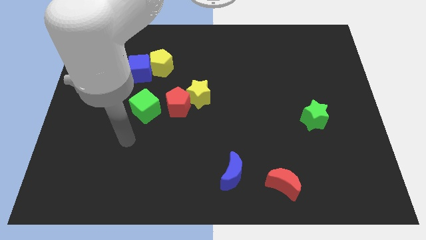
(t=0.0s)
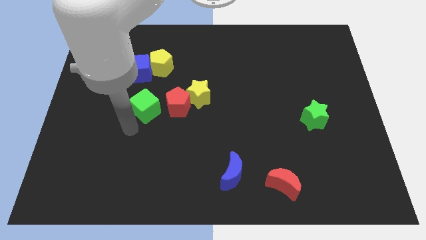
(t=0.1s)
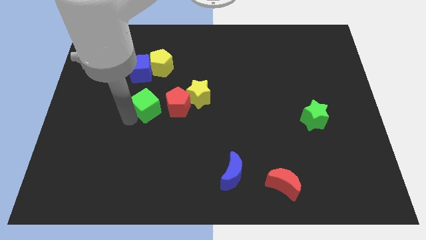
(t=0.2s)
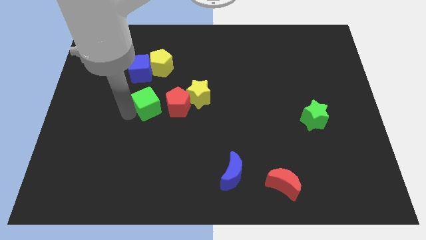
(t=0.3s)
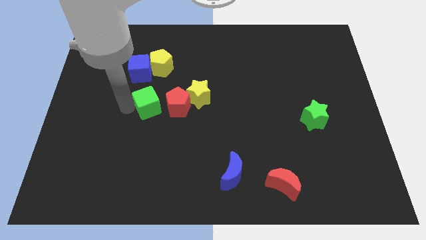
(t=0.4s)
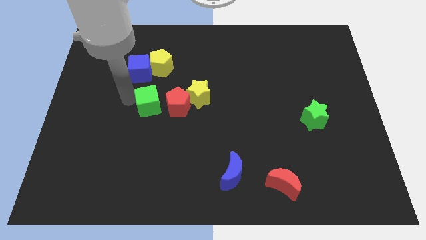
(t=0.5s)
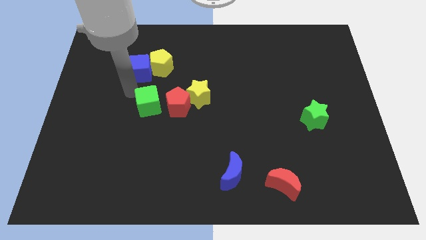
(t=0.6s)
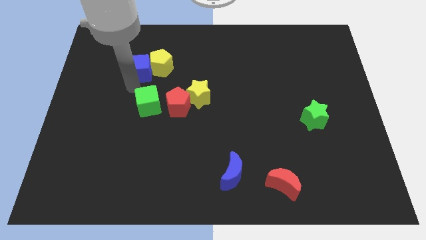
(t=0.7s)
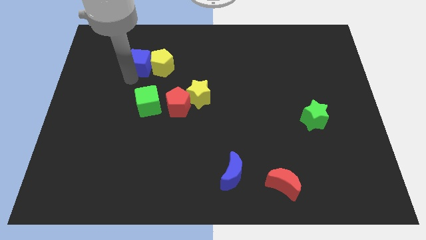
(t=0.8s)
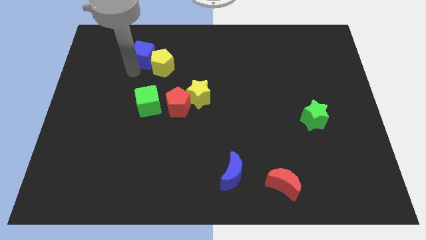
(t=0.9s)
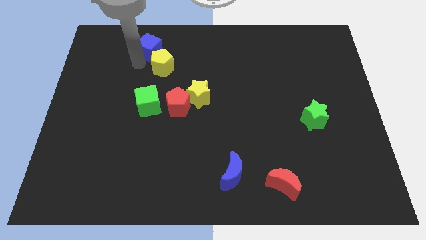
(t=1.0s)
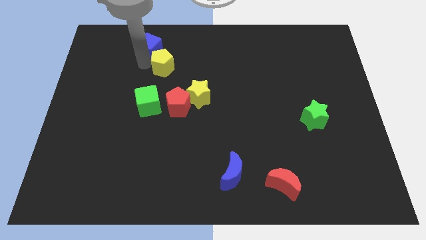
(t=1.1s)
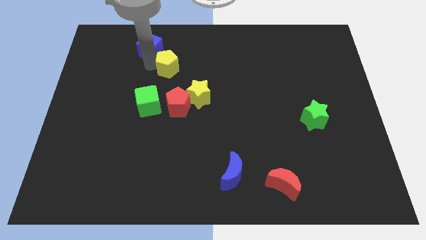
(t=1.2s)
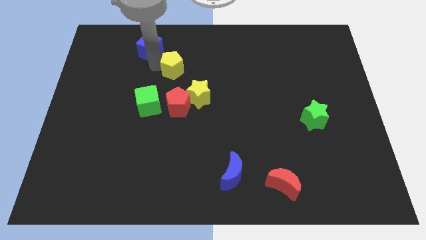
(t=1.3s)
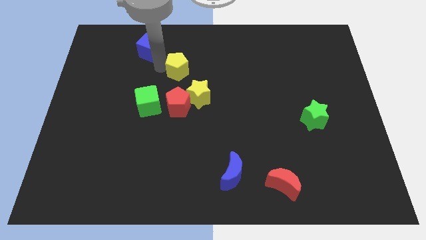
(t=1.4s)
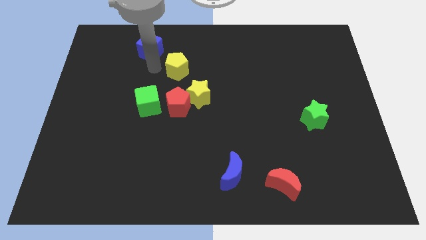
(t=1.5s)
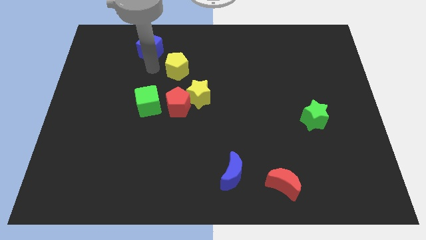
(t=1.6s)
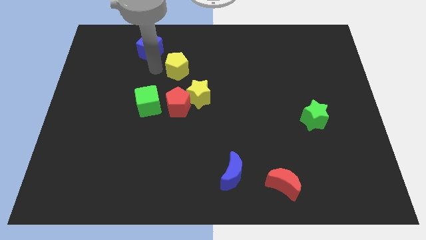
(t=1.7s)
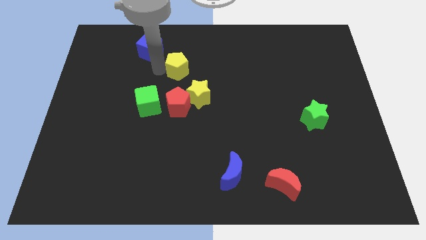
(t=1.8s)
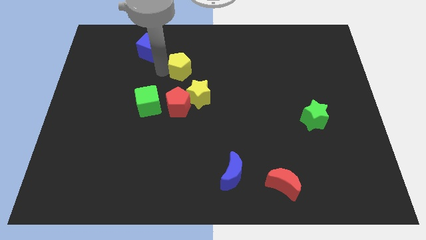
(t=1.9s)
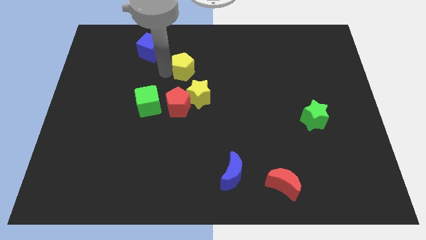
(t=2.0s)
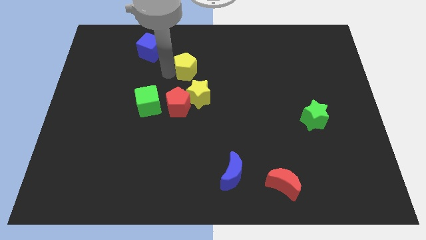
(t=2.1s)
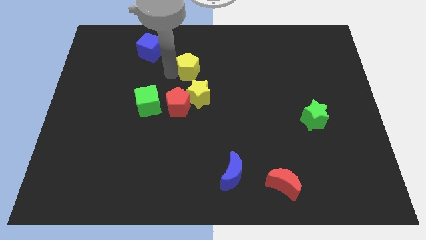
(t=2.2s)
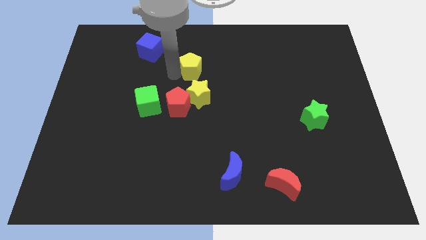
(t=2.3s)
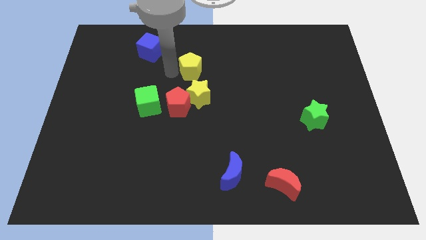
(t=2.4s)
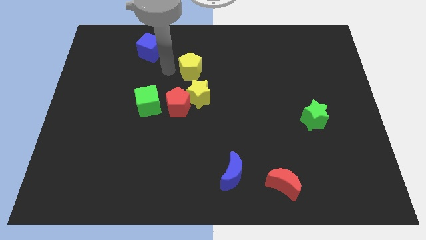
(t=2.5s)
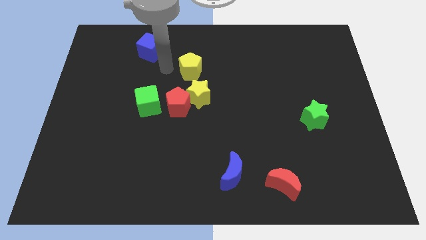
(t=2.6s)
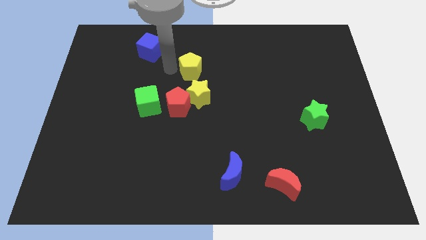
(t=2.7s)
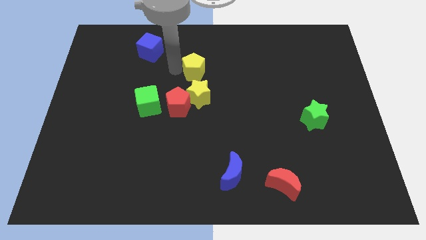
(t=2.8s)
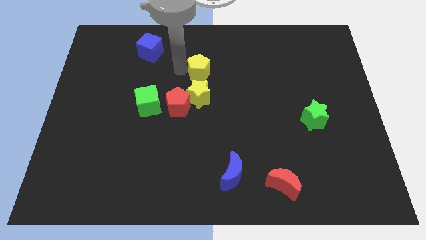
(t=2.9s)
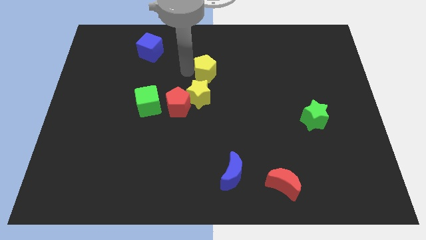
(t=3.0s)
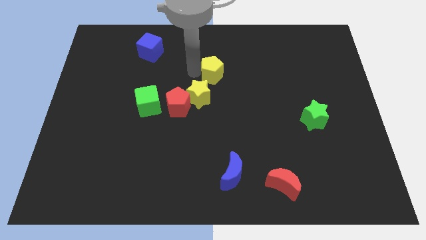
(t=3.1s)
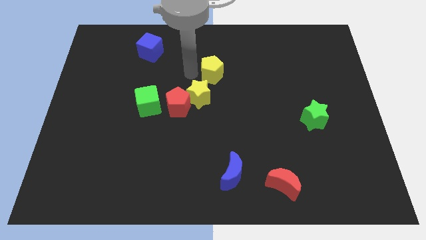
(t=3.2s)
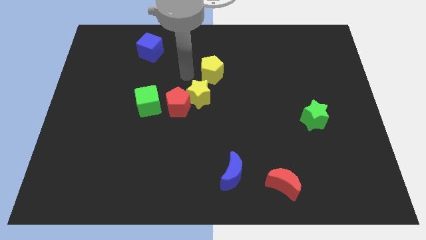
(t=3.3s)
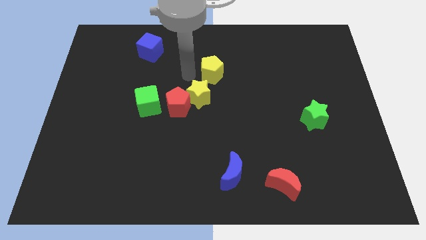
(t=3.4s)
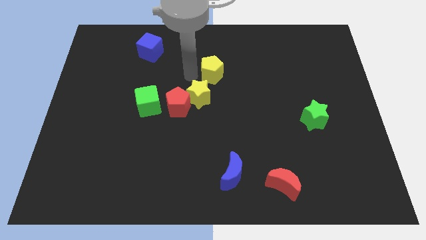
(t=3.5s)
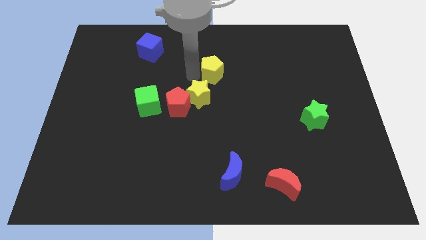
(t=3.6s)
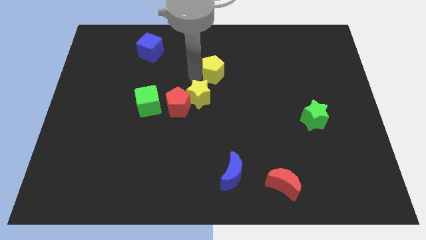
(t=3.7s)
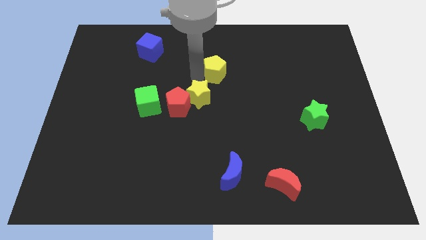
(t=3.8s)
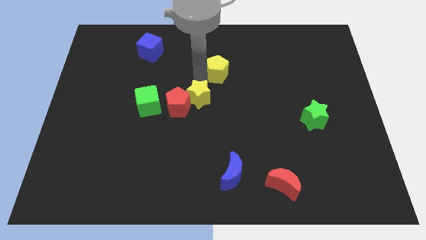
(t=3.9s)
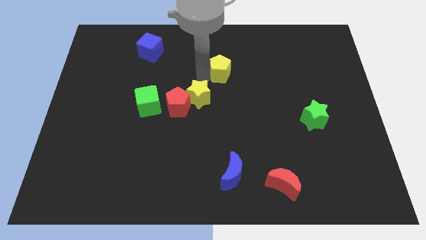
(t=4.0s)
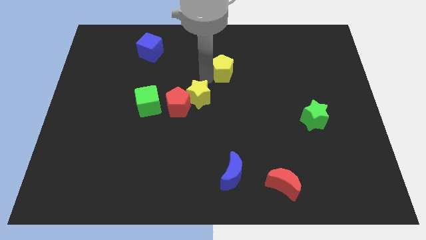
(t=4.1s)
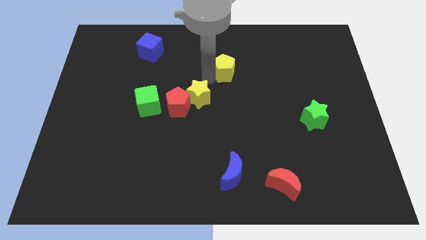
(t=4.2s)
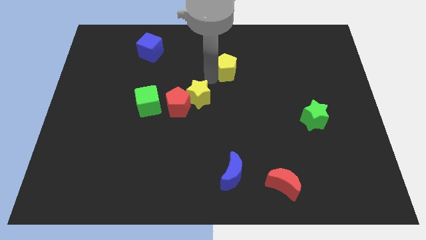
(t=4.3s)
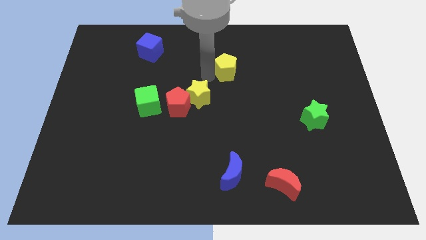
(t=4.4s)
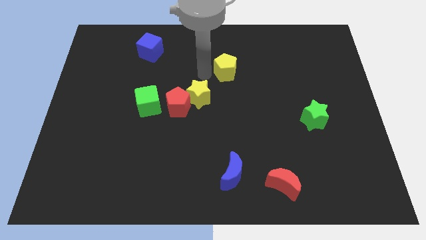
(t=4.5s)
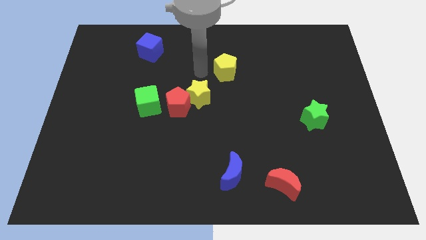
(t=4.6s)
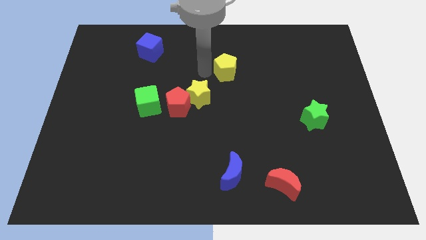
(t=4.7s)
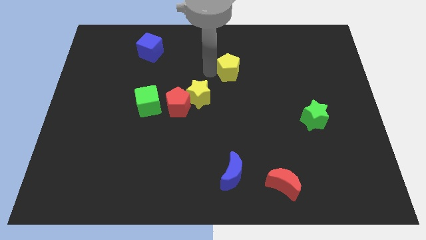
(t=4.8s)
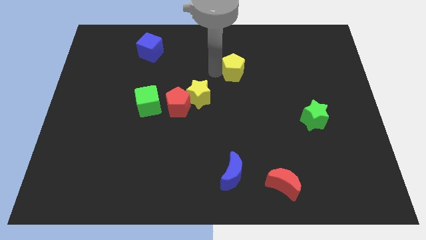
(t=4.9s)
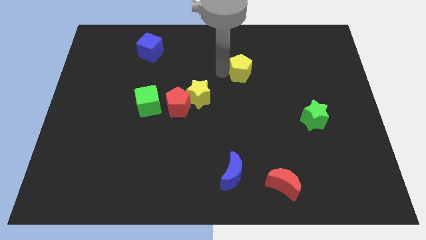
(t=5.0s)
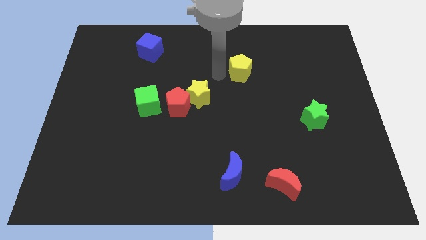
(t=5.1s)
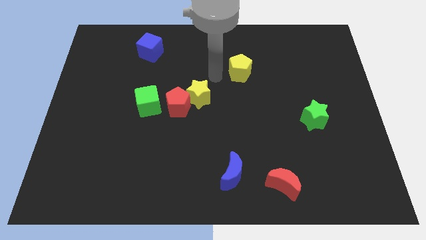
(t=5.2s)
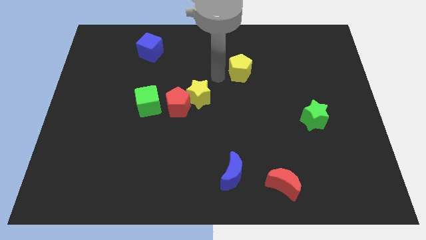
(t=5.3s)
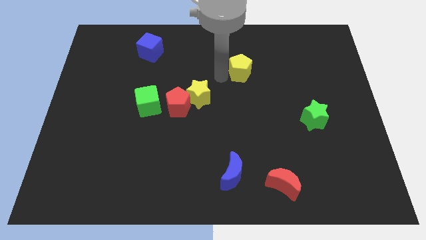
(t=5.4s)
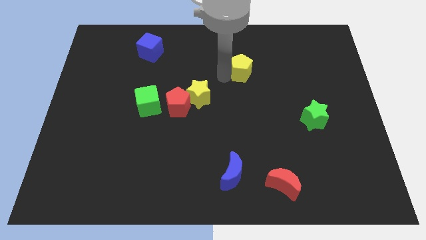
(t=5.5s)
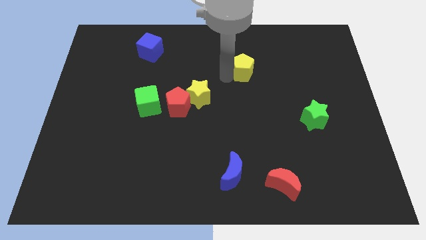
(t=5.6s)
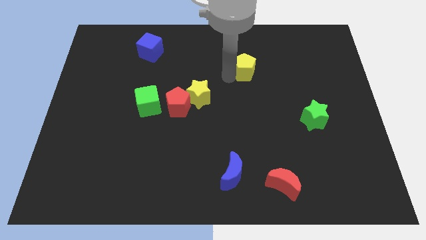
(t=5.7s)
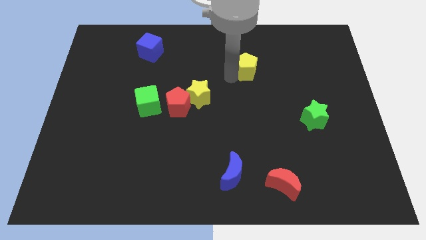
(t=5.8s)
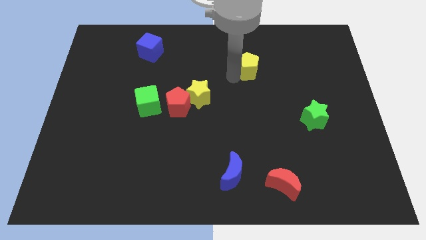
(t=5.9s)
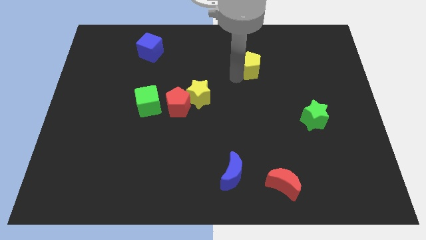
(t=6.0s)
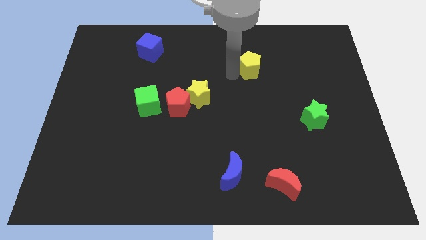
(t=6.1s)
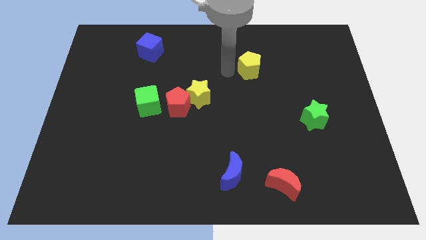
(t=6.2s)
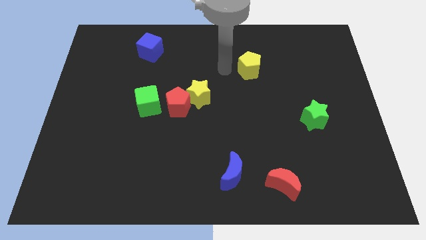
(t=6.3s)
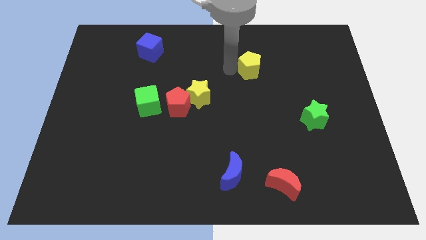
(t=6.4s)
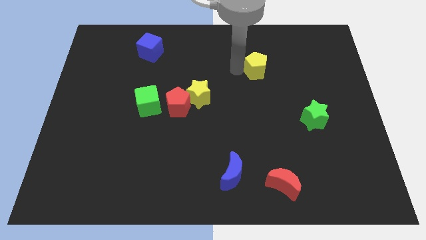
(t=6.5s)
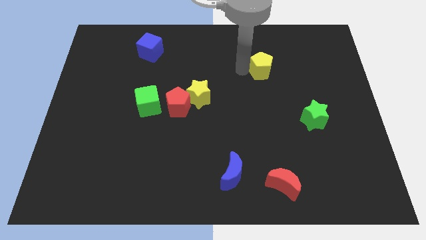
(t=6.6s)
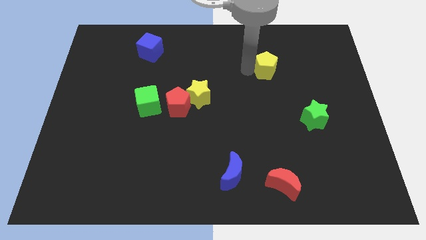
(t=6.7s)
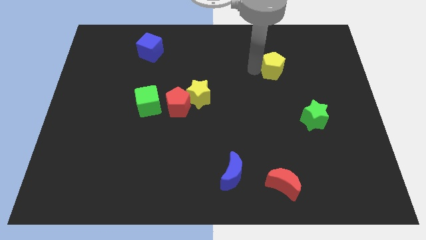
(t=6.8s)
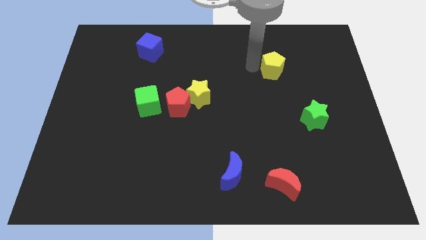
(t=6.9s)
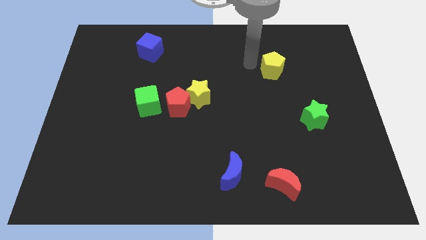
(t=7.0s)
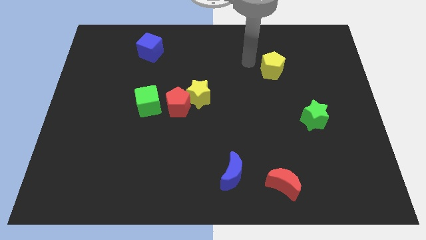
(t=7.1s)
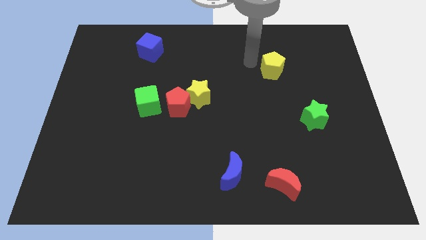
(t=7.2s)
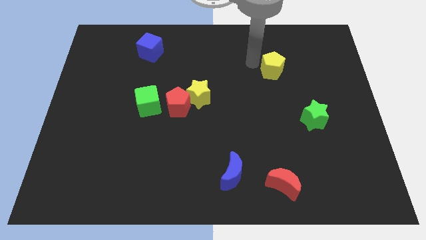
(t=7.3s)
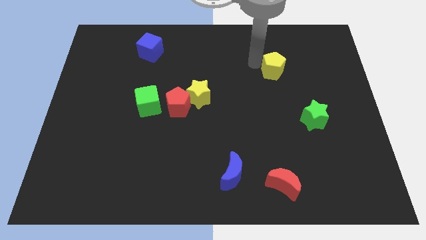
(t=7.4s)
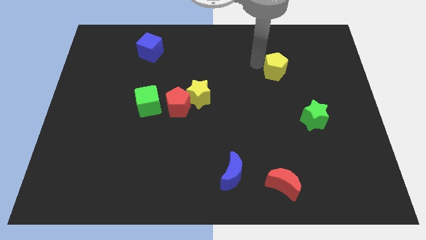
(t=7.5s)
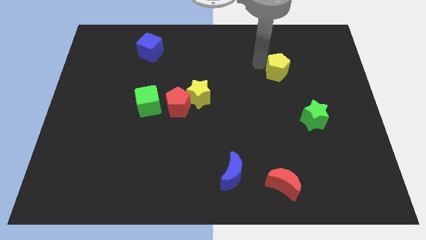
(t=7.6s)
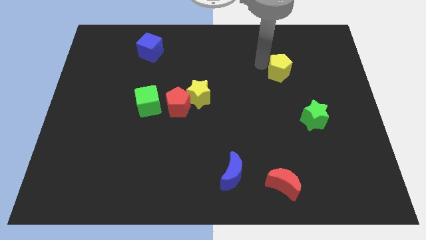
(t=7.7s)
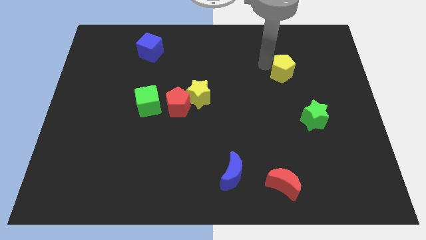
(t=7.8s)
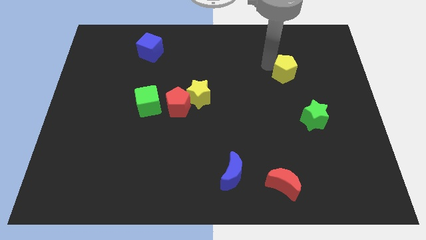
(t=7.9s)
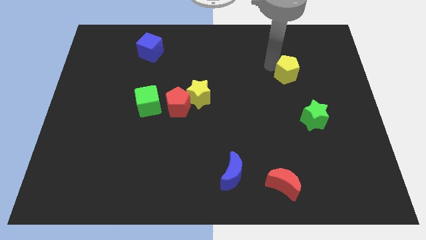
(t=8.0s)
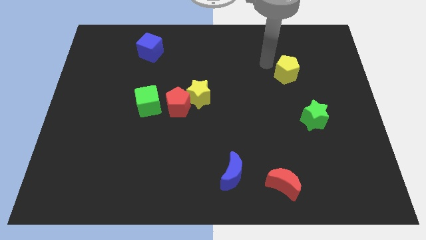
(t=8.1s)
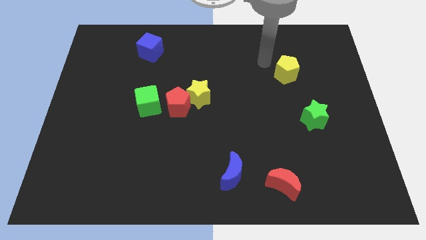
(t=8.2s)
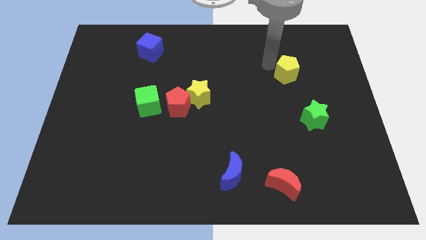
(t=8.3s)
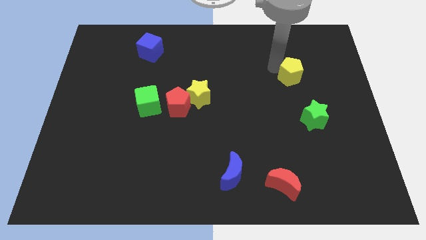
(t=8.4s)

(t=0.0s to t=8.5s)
put the yellow pentagon above the green star
